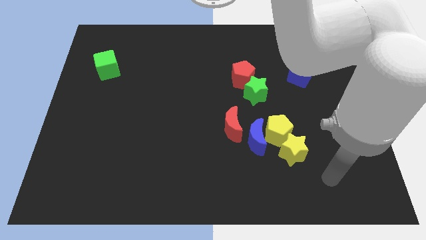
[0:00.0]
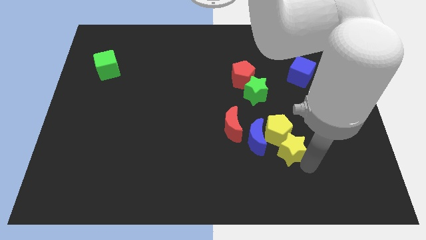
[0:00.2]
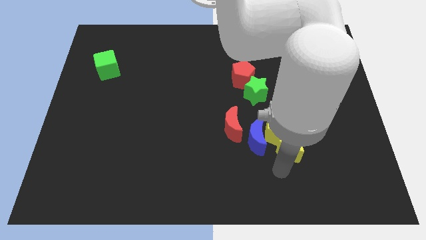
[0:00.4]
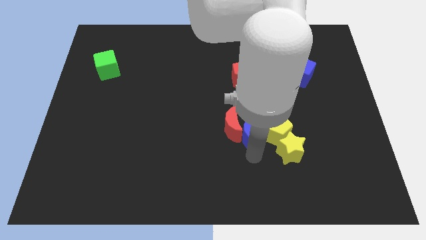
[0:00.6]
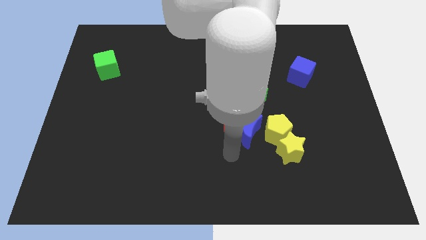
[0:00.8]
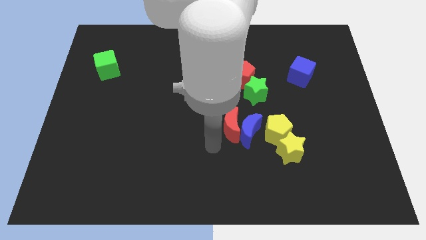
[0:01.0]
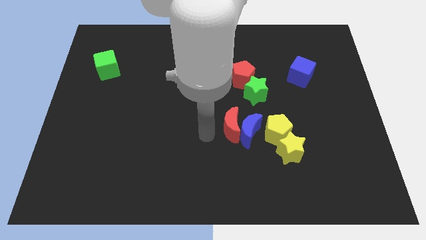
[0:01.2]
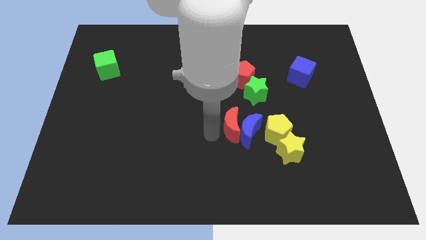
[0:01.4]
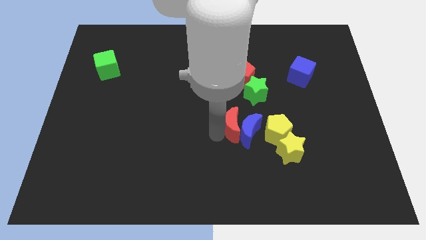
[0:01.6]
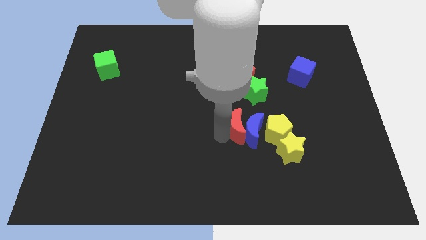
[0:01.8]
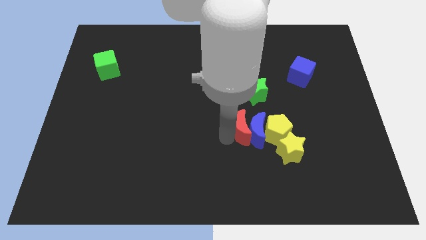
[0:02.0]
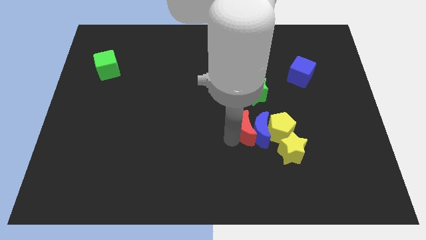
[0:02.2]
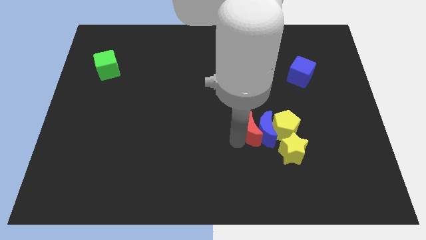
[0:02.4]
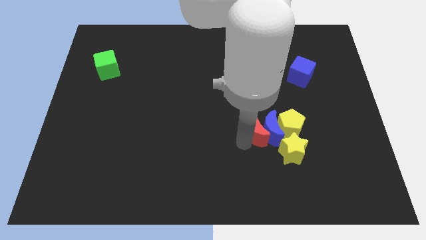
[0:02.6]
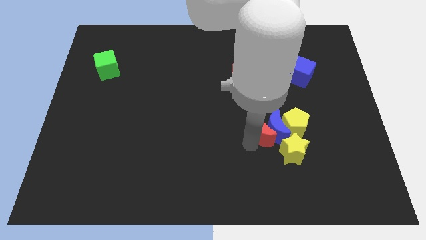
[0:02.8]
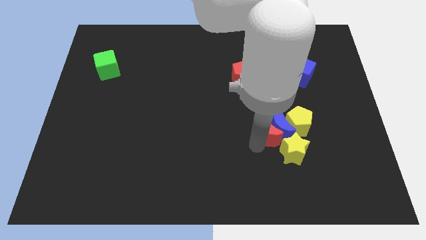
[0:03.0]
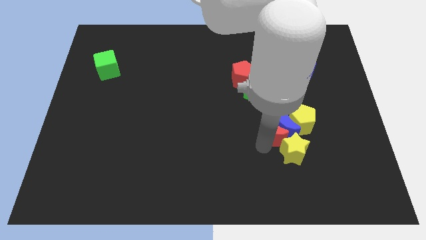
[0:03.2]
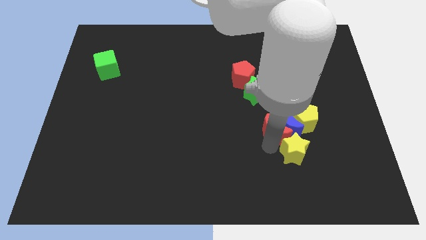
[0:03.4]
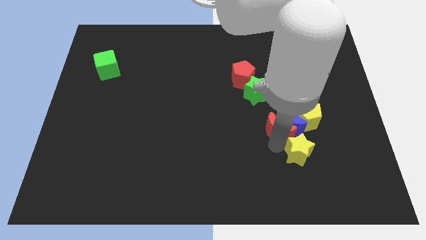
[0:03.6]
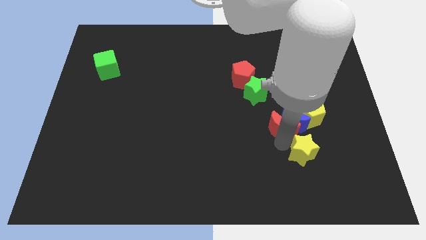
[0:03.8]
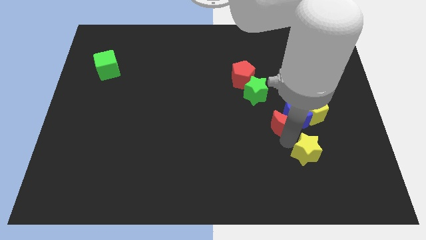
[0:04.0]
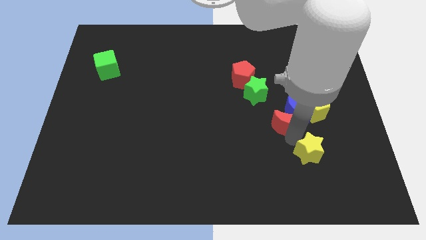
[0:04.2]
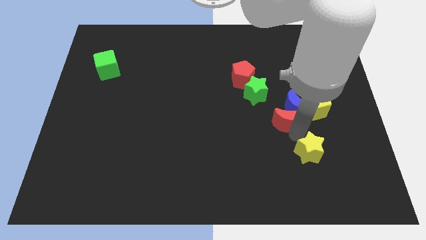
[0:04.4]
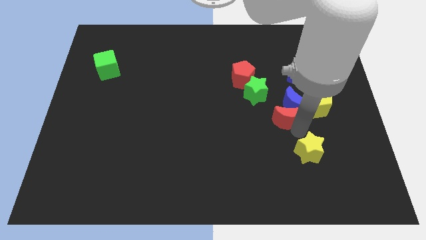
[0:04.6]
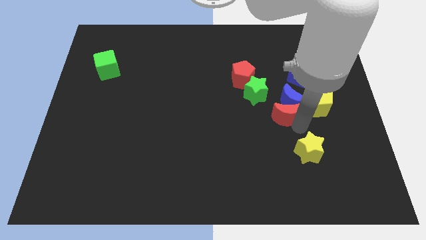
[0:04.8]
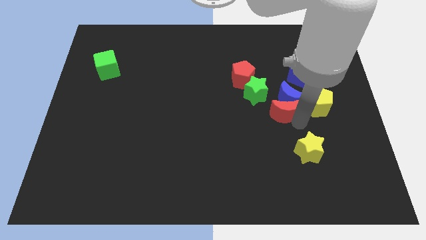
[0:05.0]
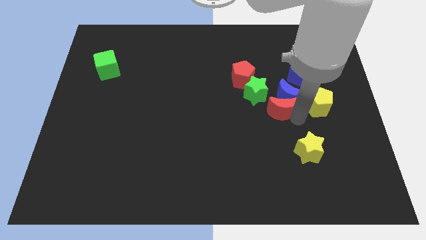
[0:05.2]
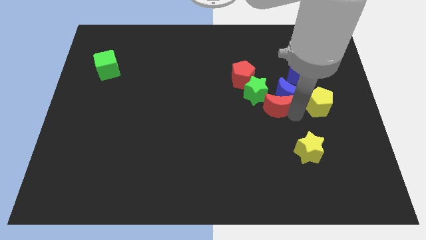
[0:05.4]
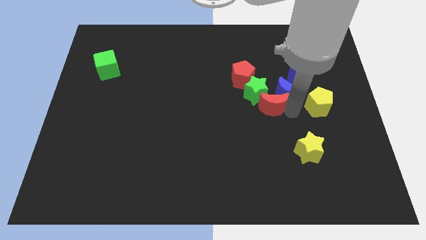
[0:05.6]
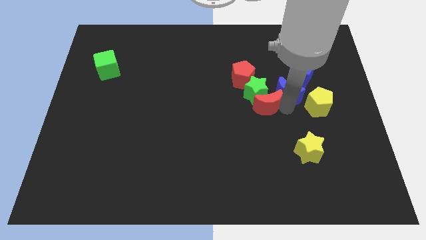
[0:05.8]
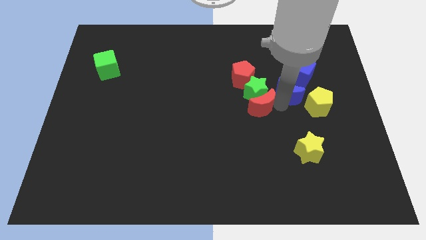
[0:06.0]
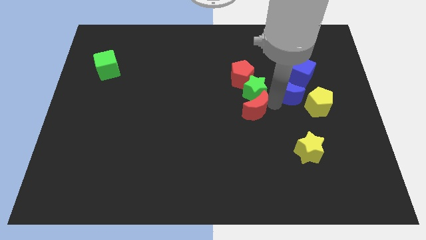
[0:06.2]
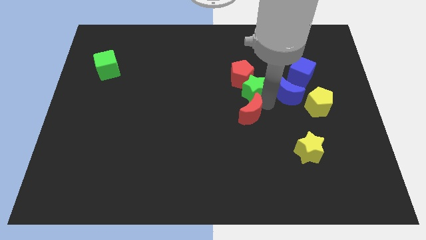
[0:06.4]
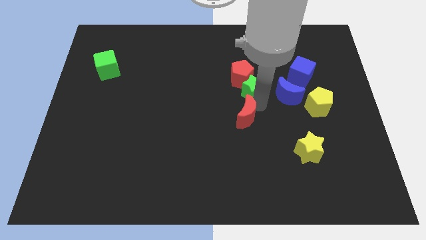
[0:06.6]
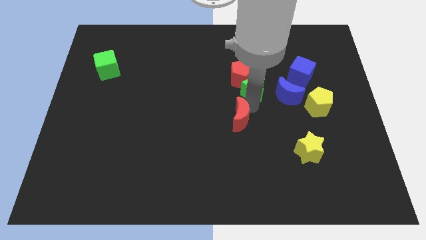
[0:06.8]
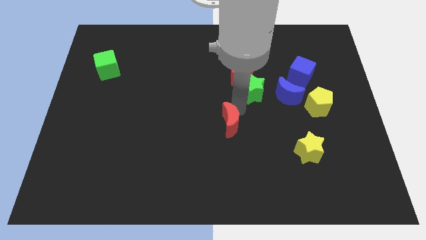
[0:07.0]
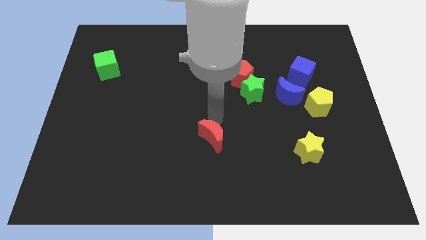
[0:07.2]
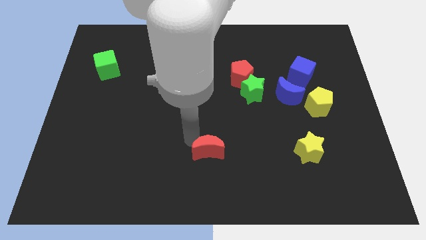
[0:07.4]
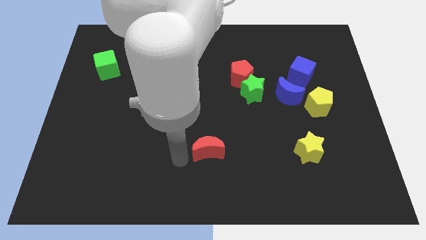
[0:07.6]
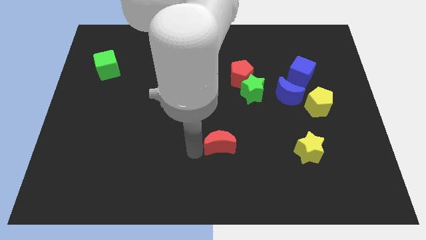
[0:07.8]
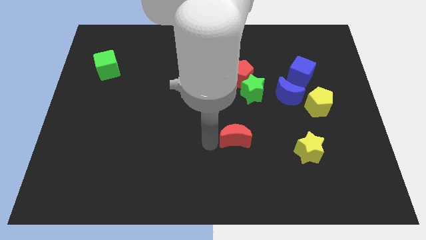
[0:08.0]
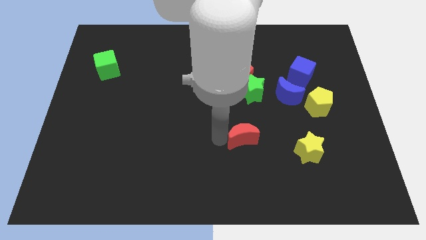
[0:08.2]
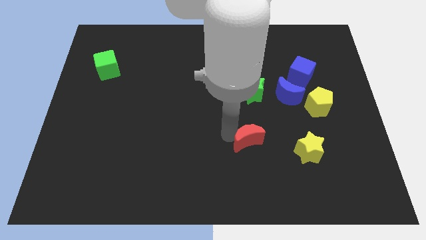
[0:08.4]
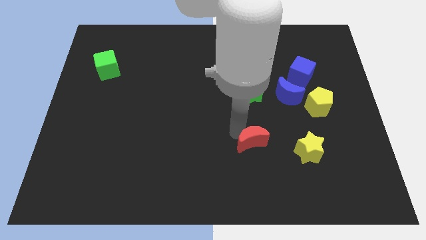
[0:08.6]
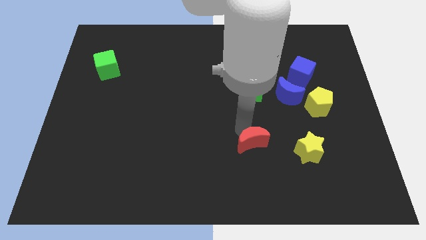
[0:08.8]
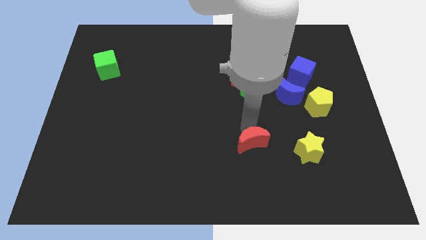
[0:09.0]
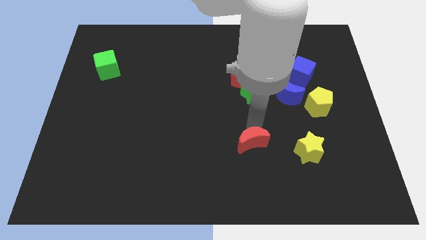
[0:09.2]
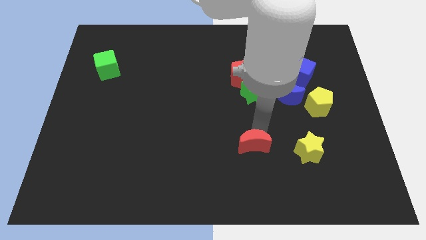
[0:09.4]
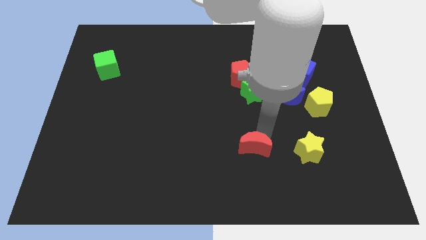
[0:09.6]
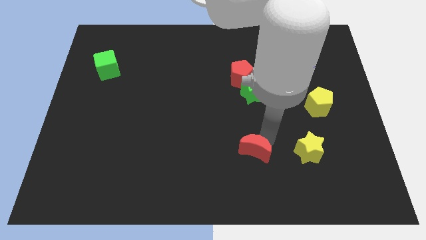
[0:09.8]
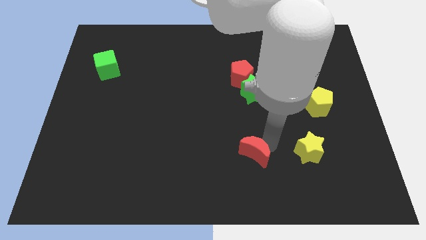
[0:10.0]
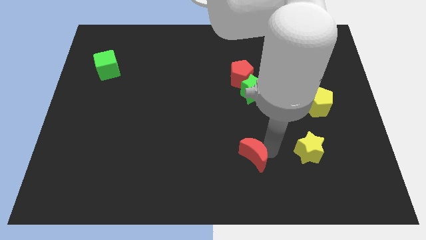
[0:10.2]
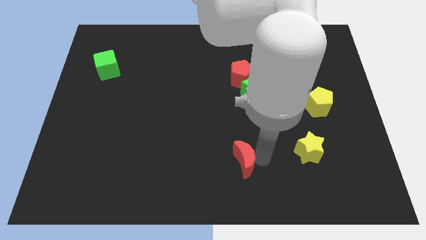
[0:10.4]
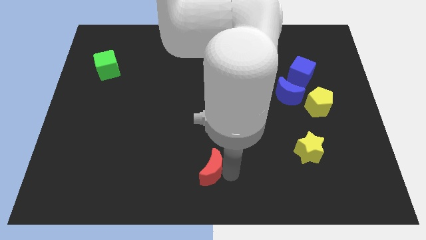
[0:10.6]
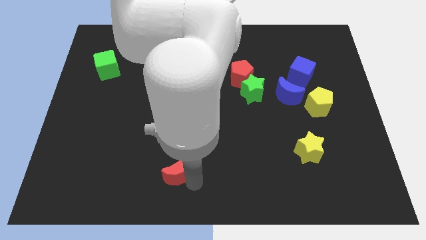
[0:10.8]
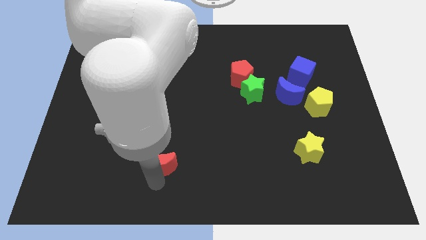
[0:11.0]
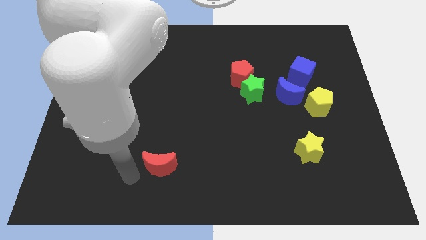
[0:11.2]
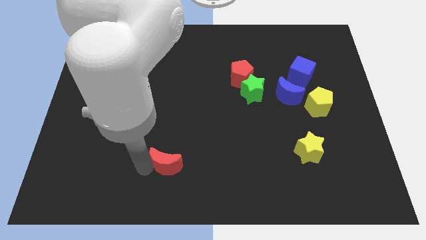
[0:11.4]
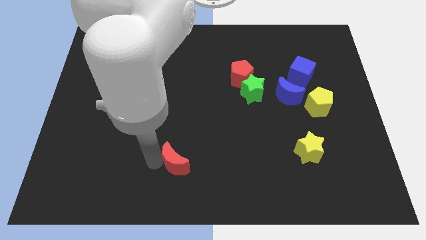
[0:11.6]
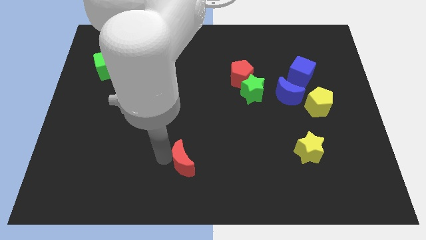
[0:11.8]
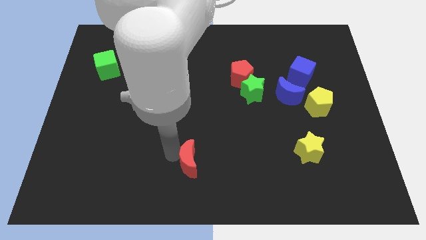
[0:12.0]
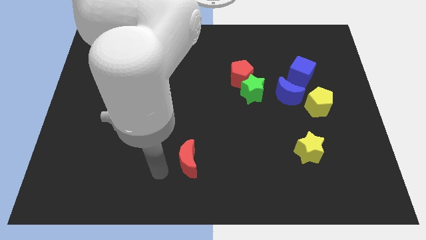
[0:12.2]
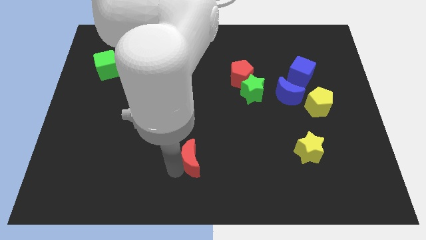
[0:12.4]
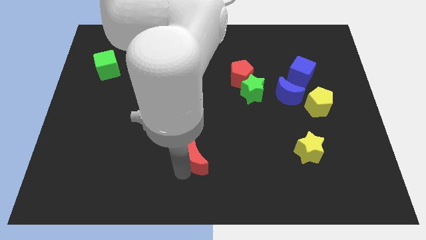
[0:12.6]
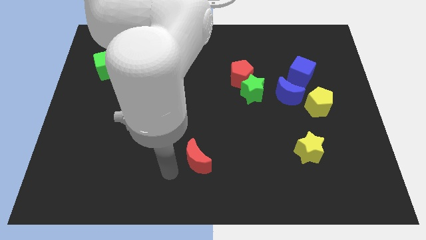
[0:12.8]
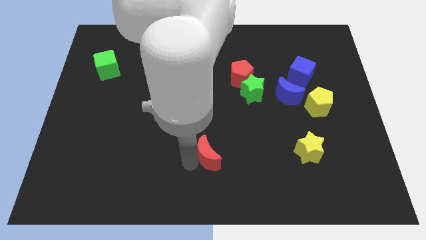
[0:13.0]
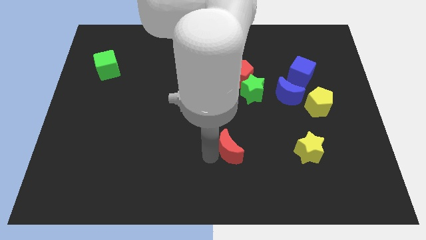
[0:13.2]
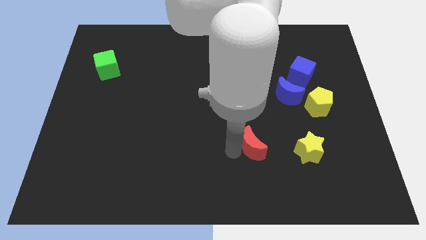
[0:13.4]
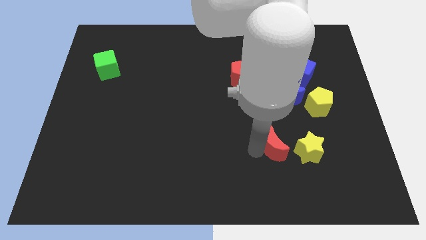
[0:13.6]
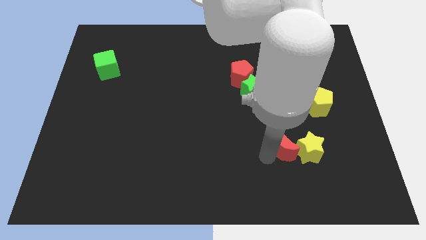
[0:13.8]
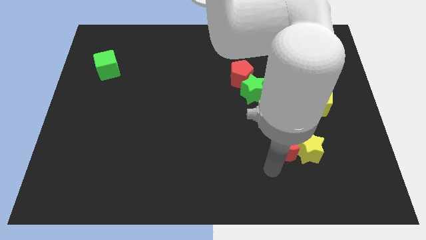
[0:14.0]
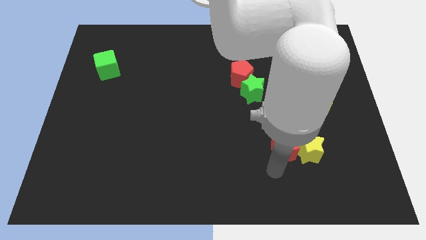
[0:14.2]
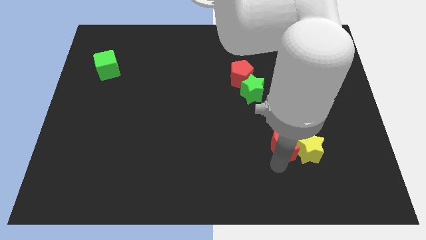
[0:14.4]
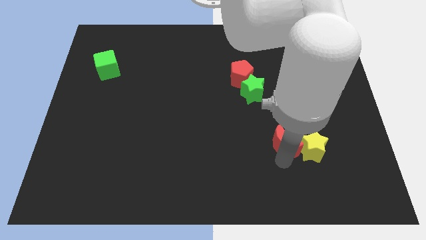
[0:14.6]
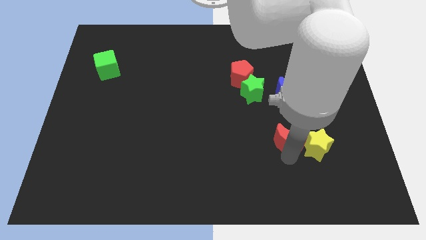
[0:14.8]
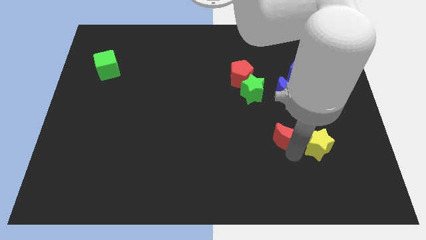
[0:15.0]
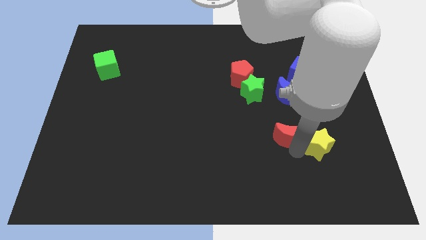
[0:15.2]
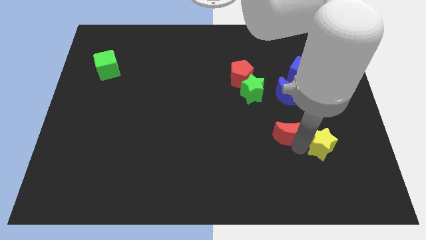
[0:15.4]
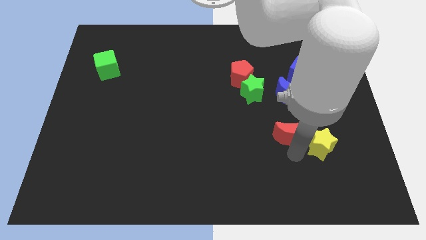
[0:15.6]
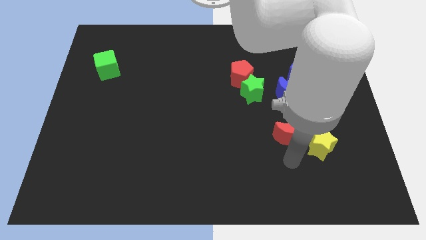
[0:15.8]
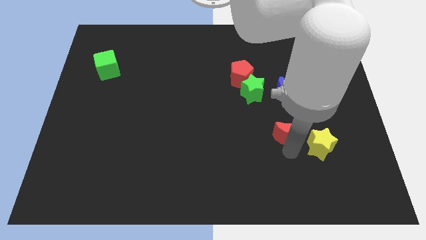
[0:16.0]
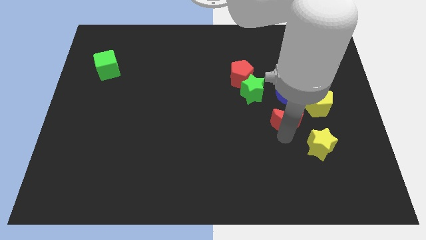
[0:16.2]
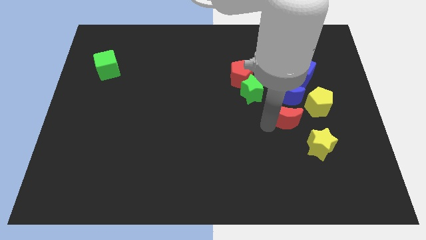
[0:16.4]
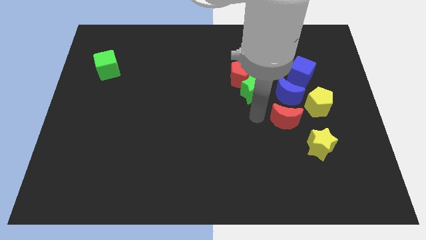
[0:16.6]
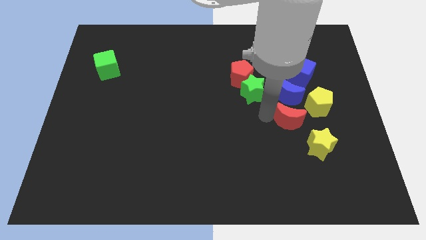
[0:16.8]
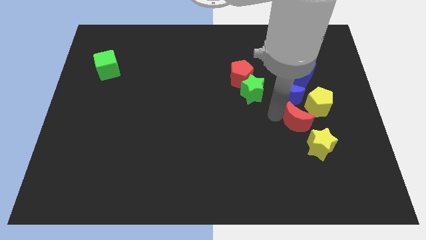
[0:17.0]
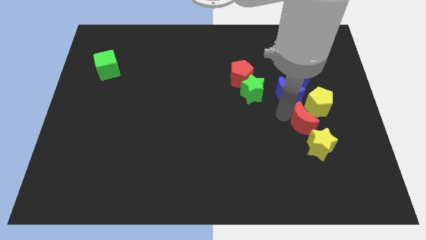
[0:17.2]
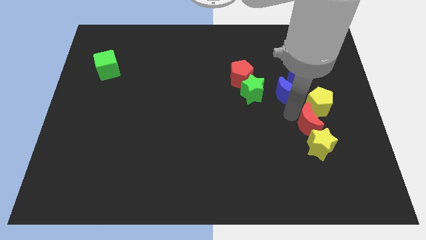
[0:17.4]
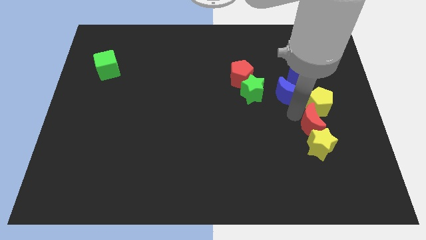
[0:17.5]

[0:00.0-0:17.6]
push the red moon to the top right side of the yellow star
